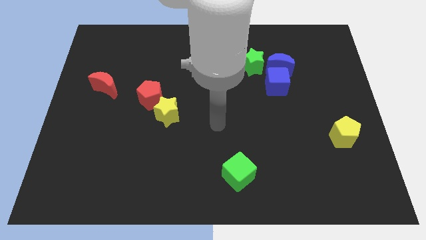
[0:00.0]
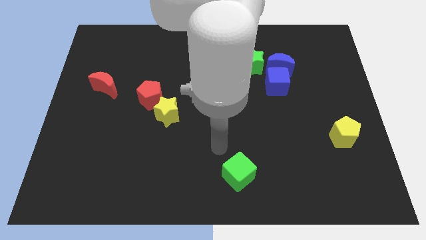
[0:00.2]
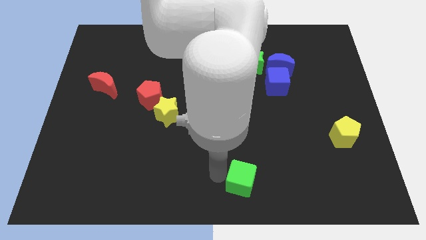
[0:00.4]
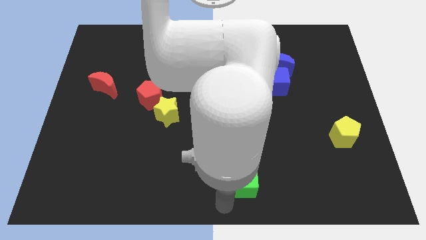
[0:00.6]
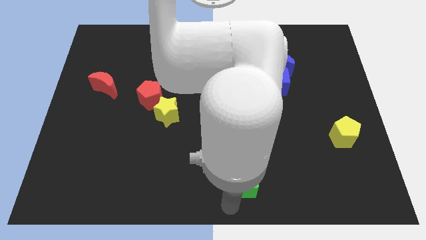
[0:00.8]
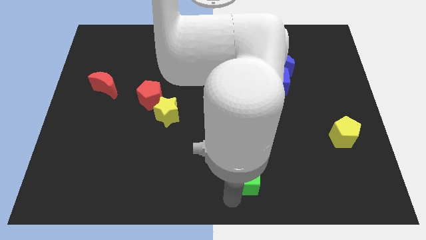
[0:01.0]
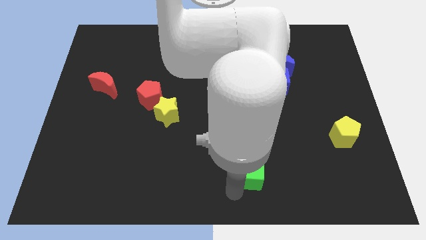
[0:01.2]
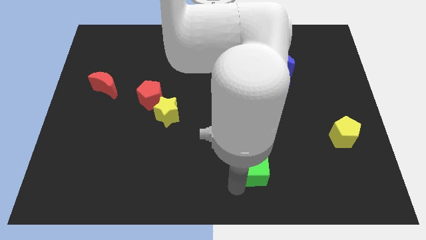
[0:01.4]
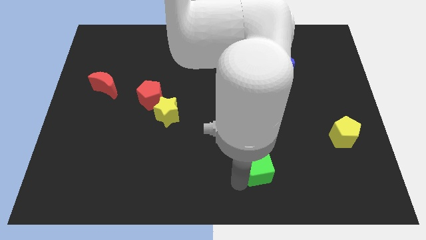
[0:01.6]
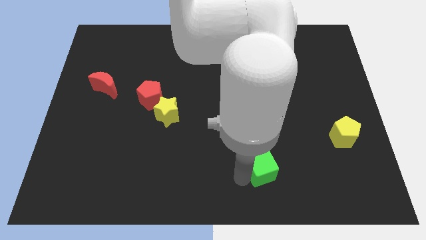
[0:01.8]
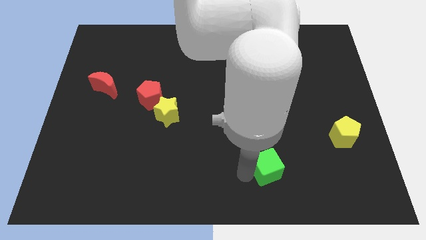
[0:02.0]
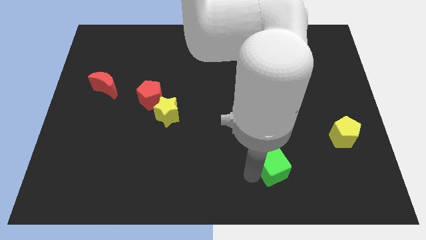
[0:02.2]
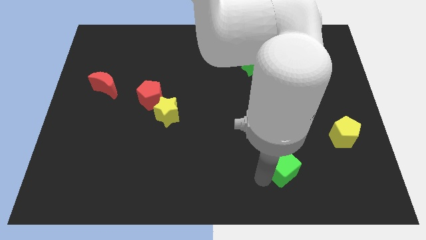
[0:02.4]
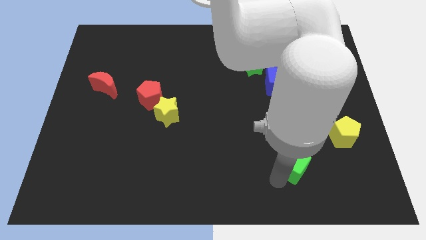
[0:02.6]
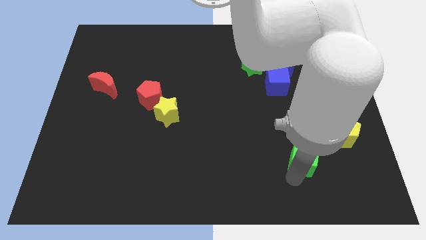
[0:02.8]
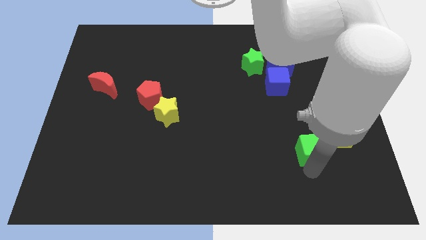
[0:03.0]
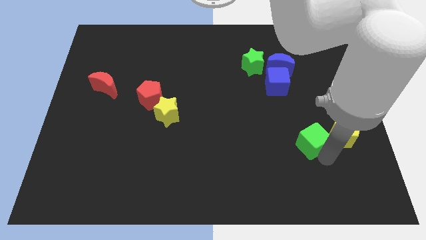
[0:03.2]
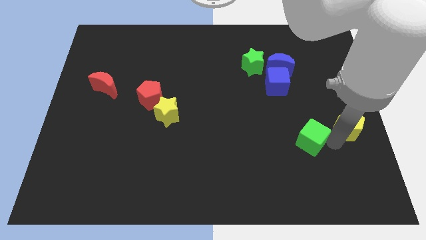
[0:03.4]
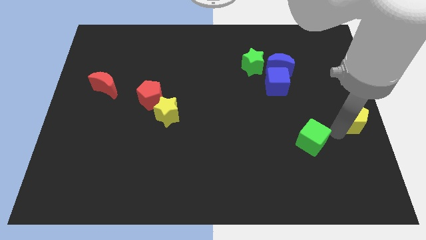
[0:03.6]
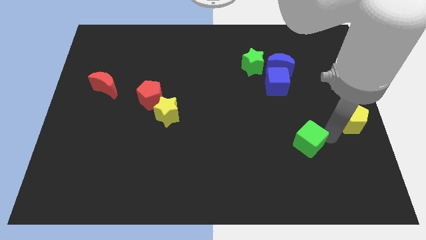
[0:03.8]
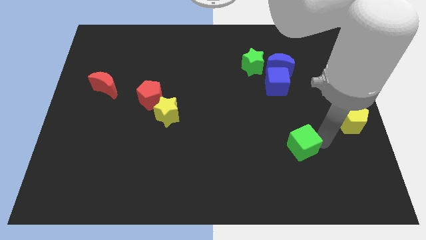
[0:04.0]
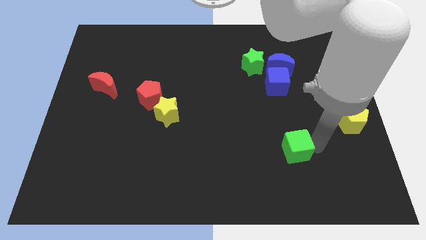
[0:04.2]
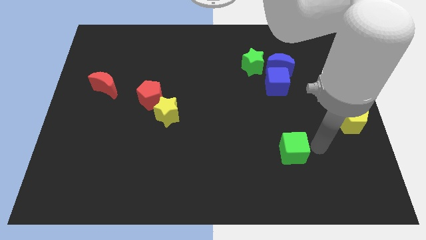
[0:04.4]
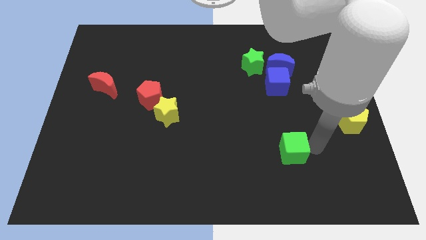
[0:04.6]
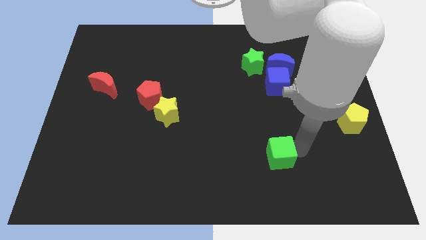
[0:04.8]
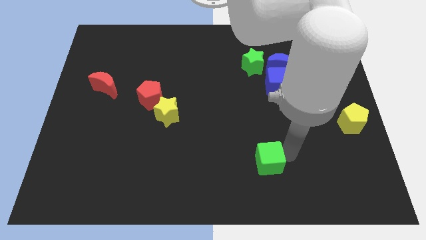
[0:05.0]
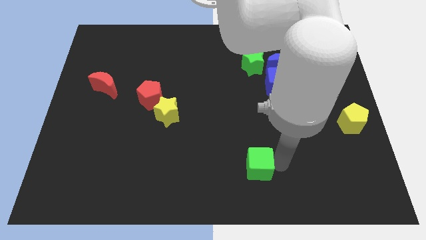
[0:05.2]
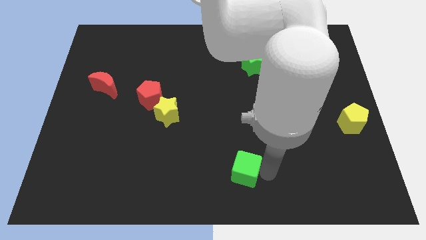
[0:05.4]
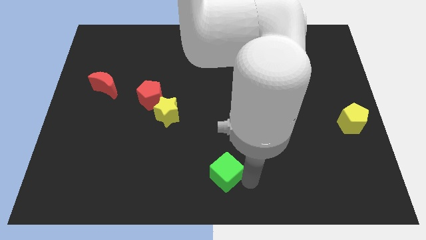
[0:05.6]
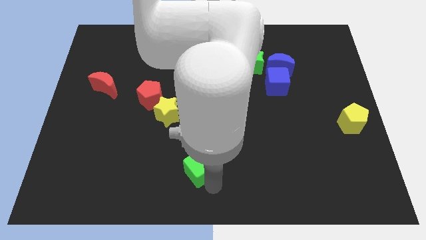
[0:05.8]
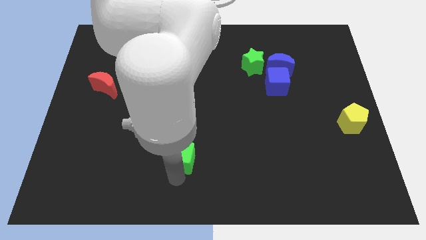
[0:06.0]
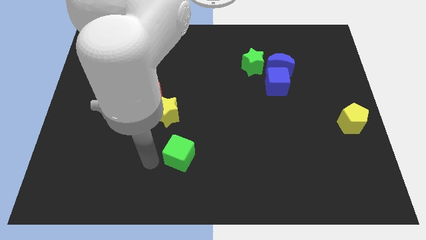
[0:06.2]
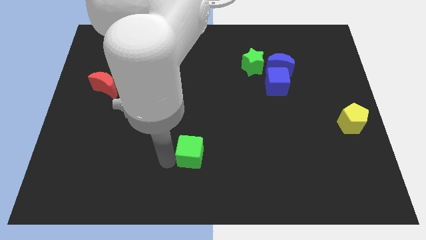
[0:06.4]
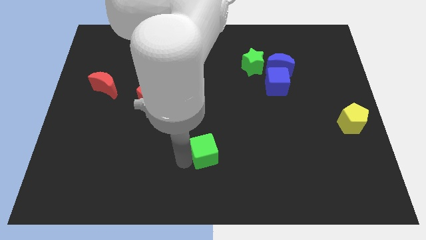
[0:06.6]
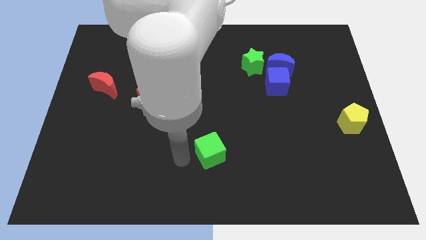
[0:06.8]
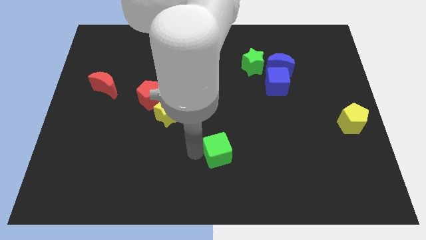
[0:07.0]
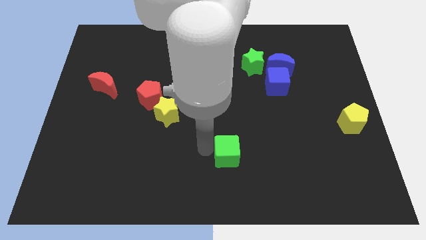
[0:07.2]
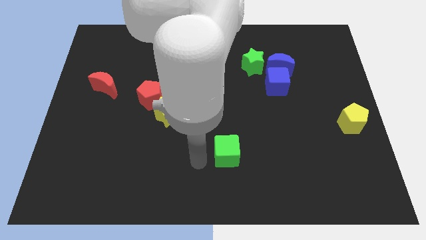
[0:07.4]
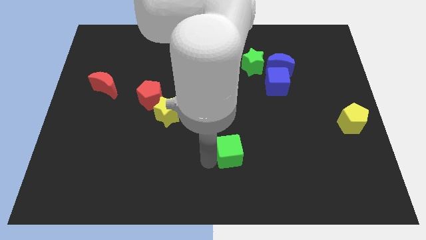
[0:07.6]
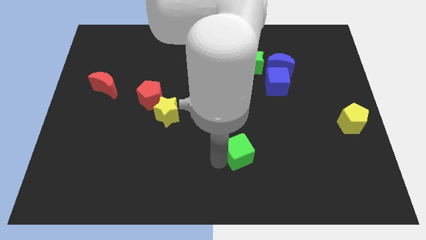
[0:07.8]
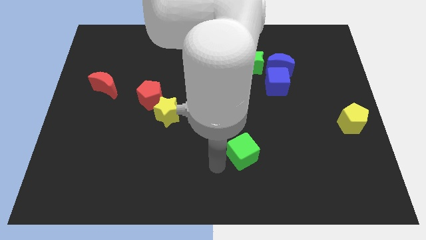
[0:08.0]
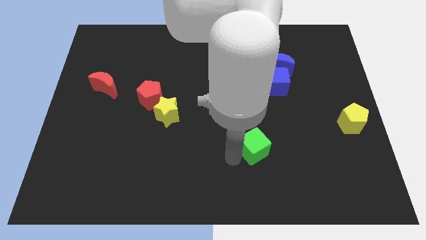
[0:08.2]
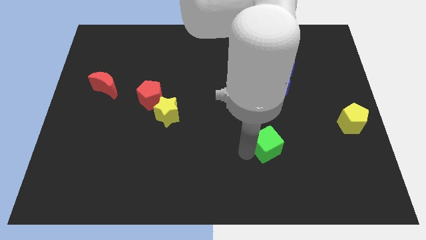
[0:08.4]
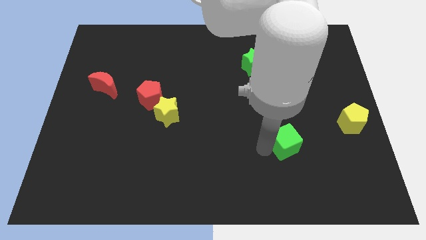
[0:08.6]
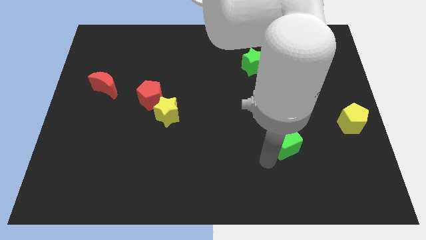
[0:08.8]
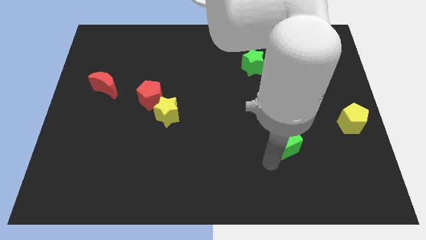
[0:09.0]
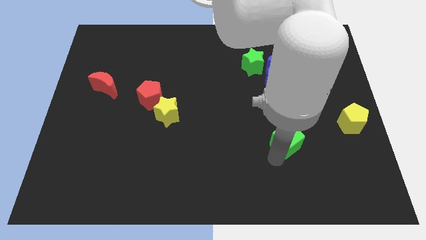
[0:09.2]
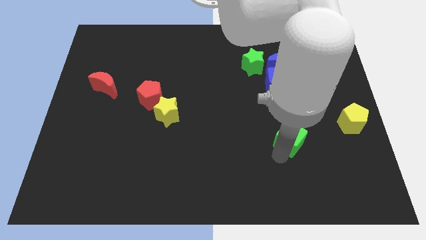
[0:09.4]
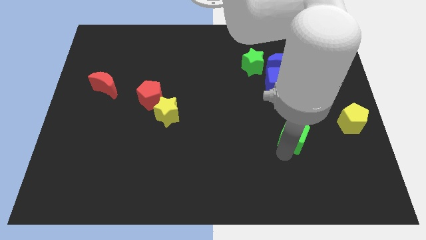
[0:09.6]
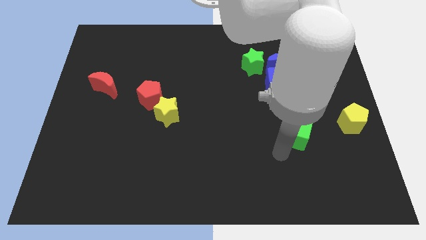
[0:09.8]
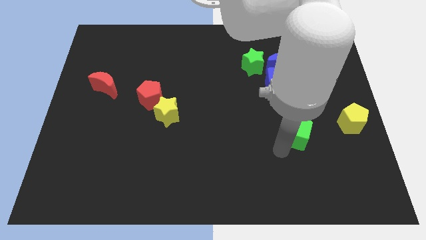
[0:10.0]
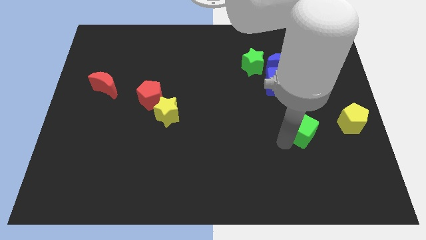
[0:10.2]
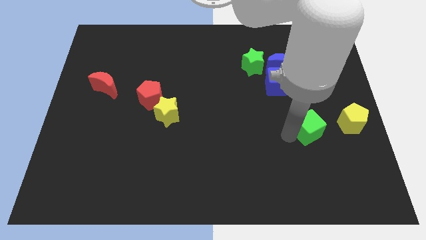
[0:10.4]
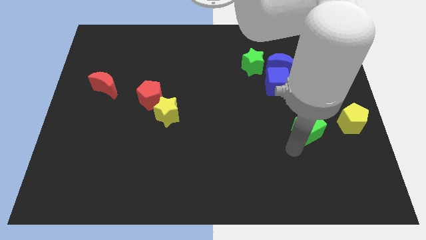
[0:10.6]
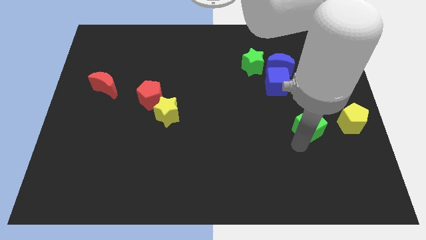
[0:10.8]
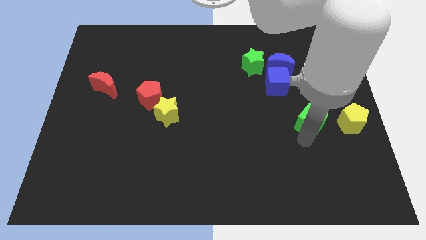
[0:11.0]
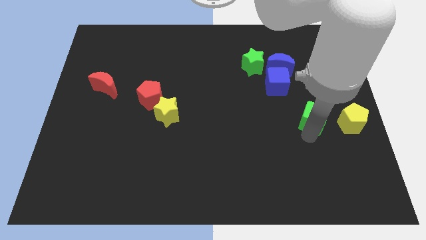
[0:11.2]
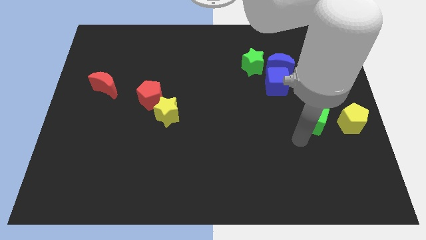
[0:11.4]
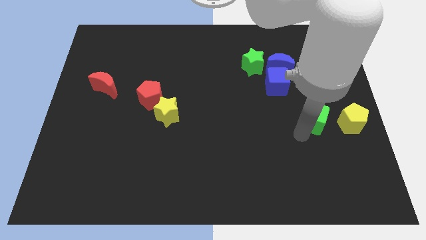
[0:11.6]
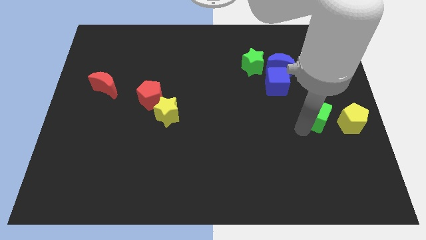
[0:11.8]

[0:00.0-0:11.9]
put the green cube to the top left side of the yellow pentagon

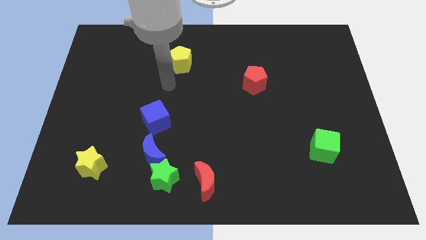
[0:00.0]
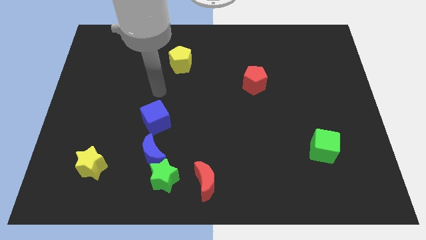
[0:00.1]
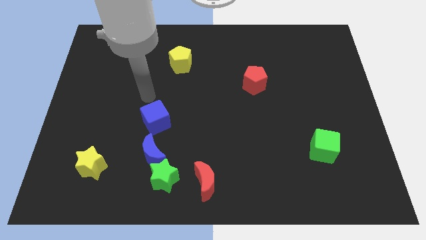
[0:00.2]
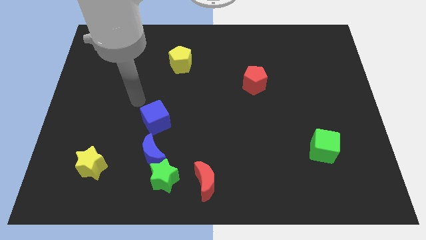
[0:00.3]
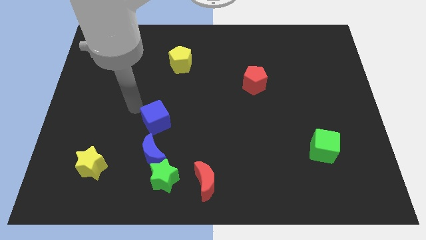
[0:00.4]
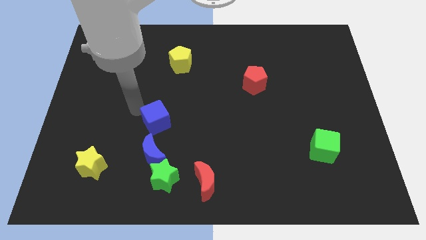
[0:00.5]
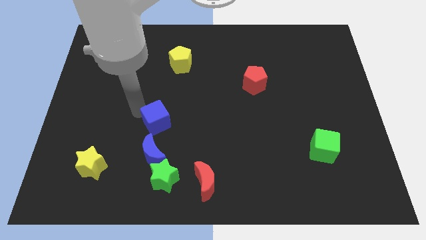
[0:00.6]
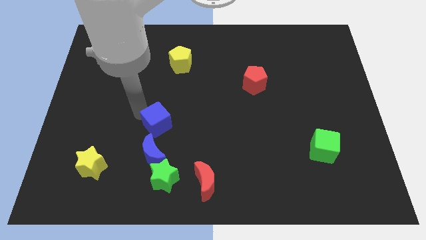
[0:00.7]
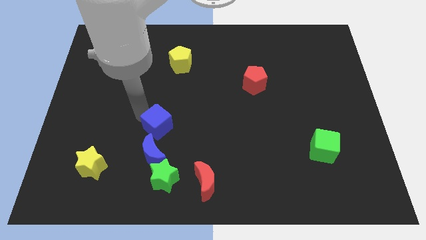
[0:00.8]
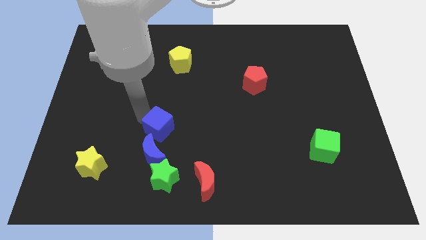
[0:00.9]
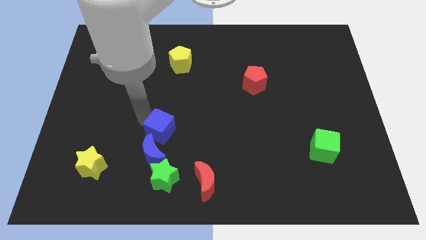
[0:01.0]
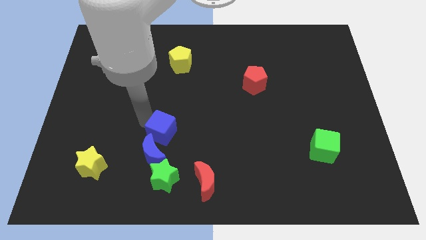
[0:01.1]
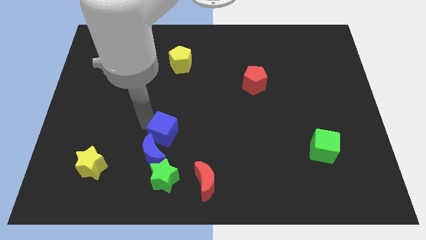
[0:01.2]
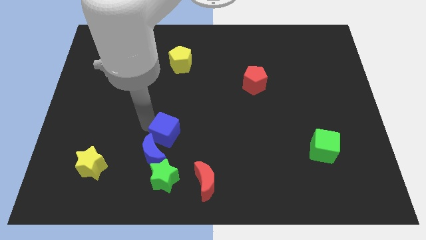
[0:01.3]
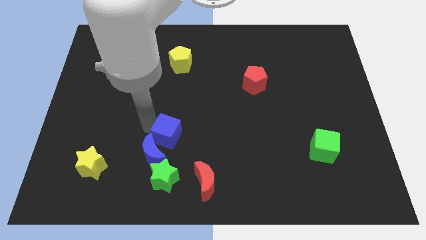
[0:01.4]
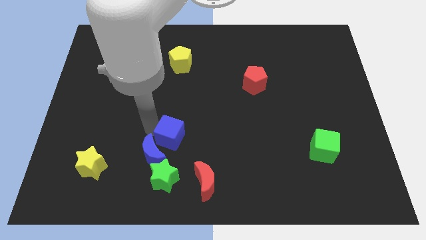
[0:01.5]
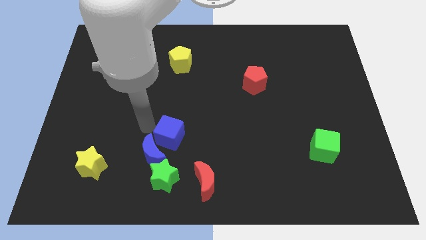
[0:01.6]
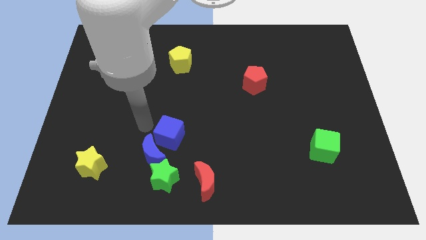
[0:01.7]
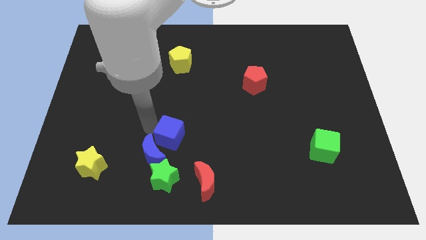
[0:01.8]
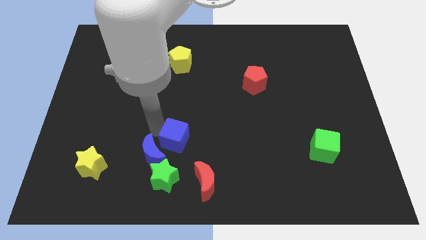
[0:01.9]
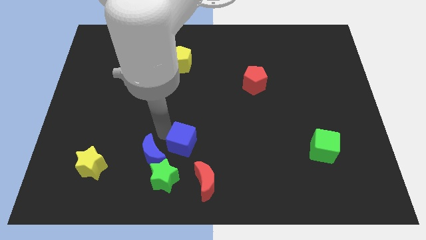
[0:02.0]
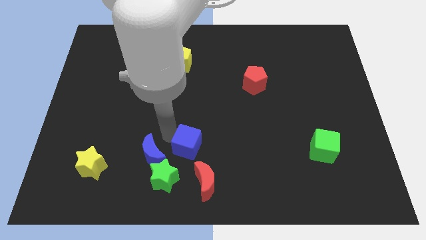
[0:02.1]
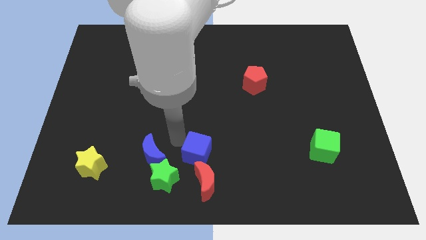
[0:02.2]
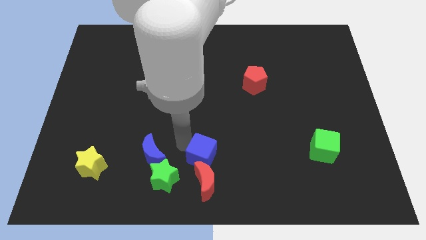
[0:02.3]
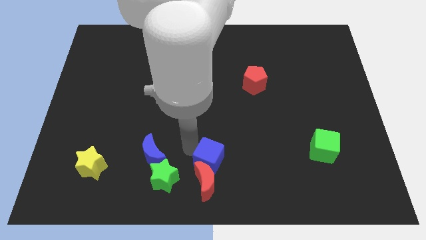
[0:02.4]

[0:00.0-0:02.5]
slide the blue cube diagonally up and to the right of the red moon
